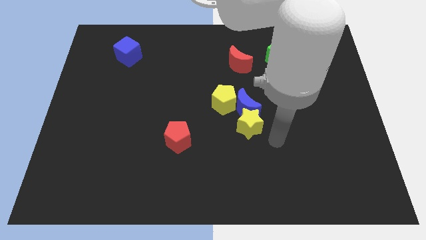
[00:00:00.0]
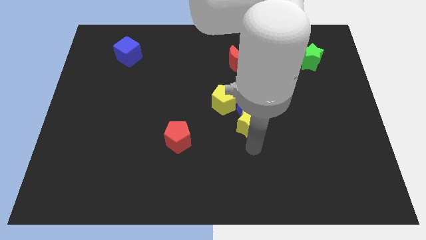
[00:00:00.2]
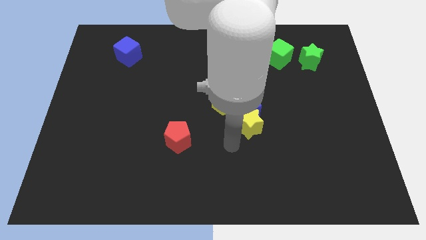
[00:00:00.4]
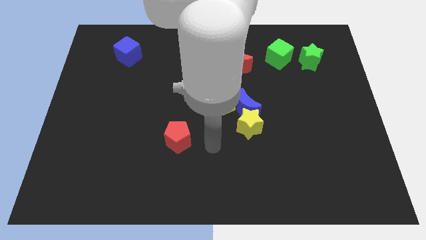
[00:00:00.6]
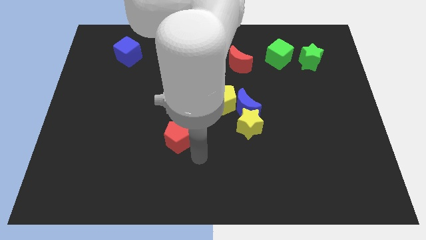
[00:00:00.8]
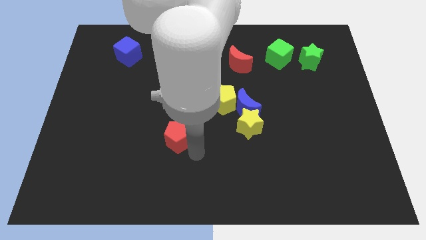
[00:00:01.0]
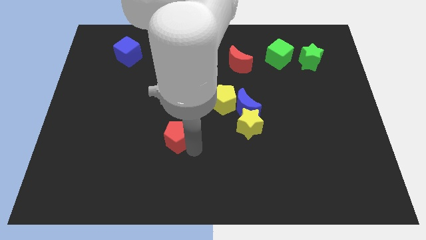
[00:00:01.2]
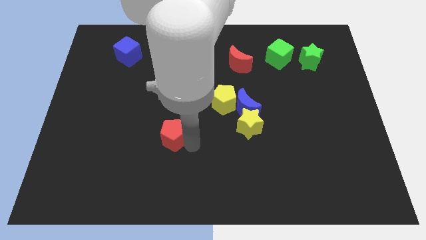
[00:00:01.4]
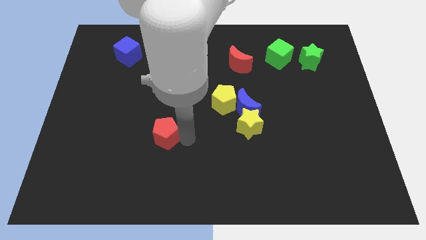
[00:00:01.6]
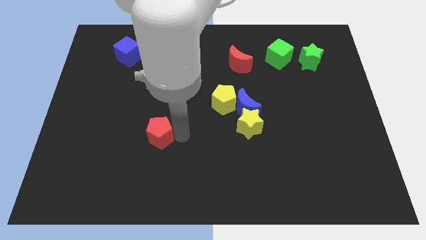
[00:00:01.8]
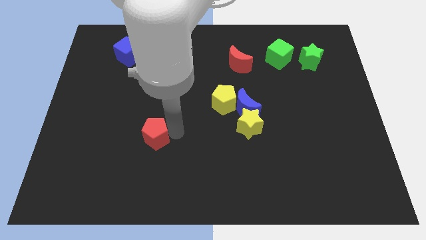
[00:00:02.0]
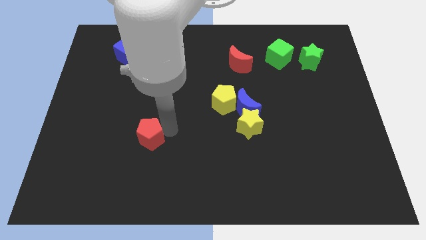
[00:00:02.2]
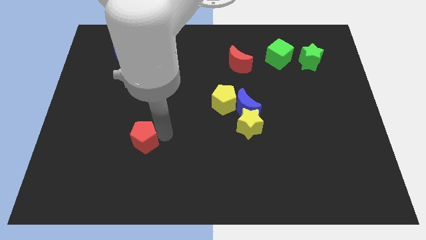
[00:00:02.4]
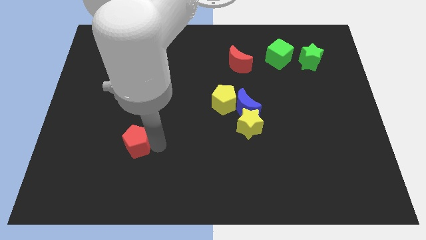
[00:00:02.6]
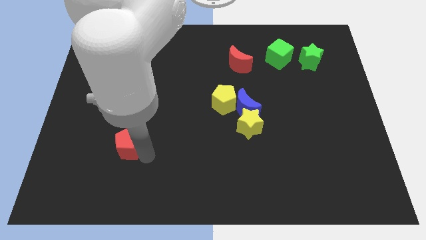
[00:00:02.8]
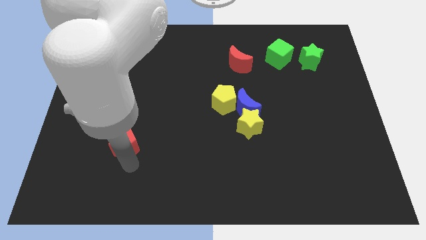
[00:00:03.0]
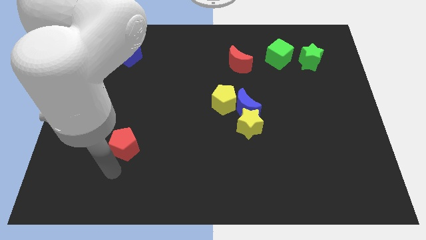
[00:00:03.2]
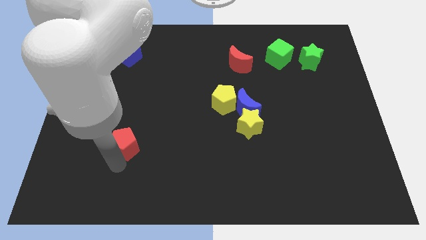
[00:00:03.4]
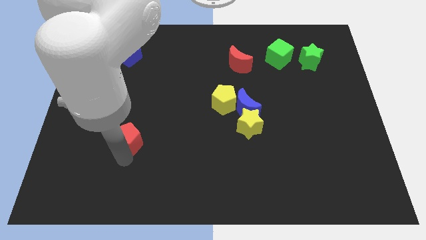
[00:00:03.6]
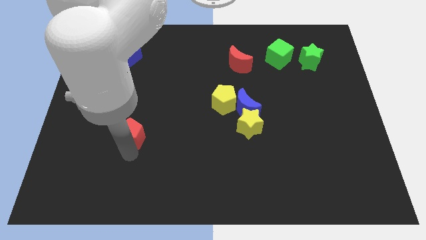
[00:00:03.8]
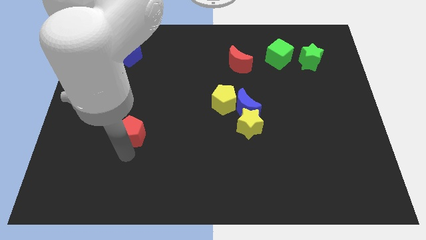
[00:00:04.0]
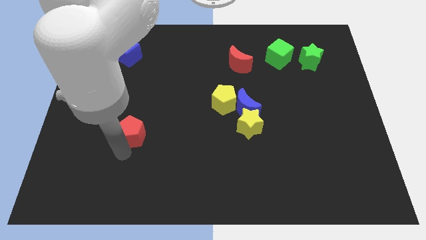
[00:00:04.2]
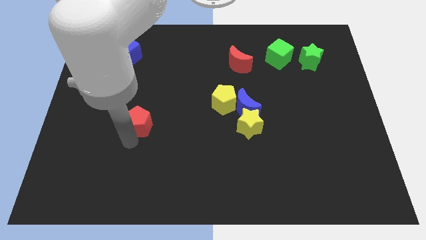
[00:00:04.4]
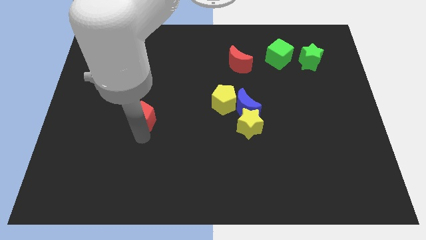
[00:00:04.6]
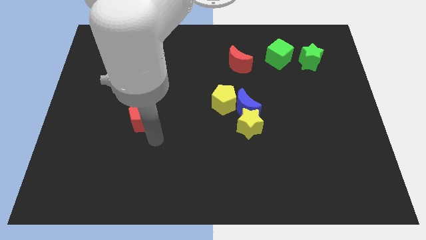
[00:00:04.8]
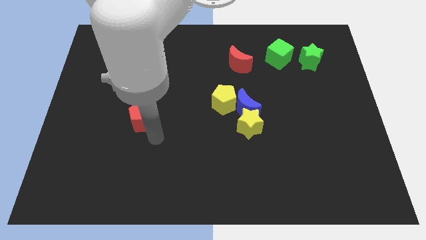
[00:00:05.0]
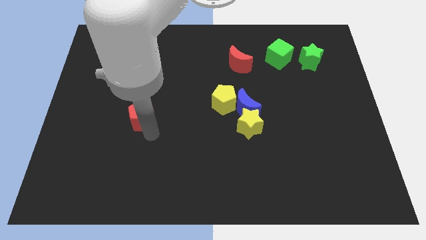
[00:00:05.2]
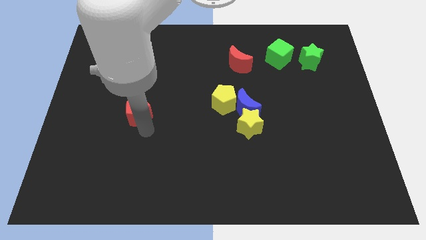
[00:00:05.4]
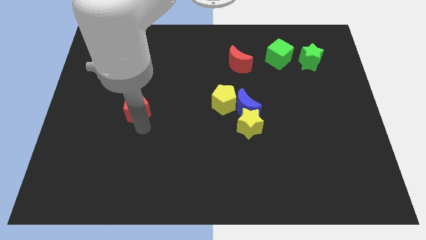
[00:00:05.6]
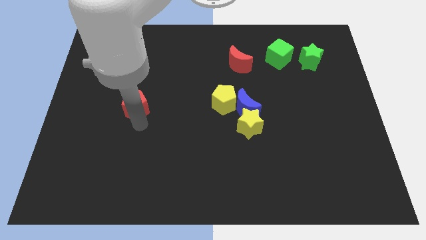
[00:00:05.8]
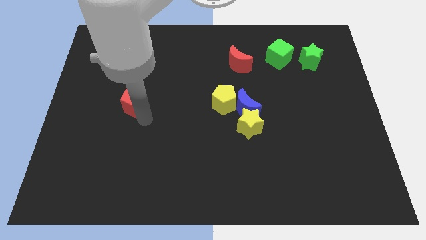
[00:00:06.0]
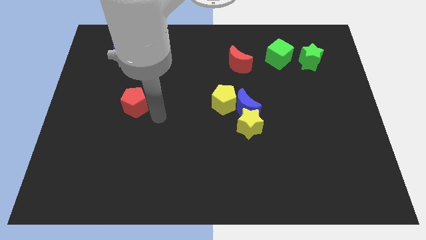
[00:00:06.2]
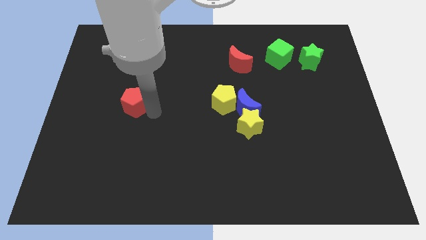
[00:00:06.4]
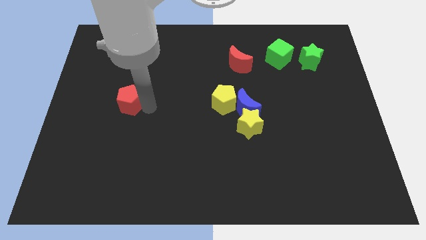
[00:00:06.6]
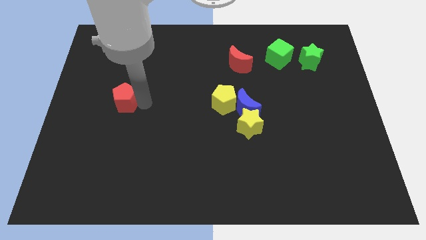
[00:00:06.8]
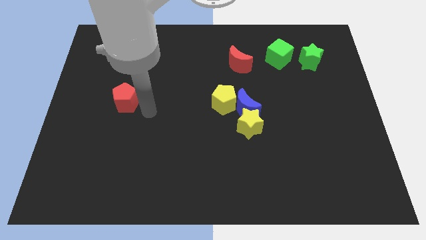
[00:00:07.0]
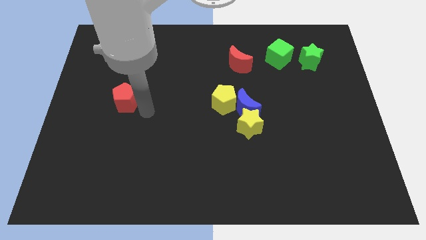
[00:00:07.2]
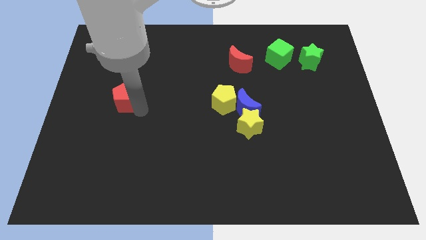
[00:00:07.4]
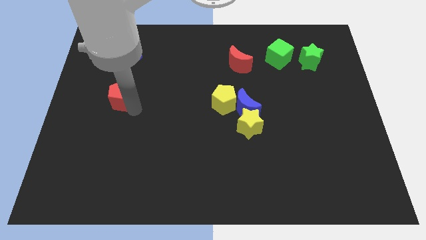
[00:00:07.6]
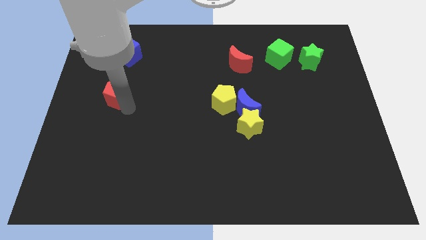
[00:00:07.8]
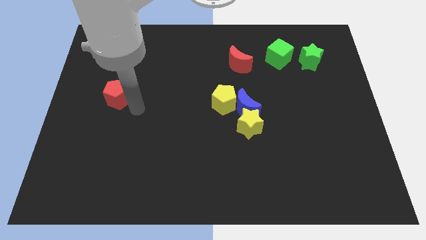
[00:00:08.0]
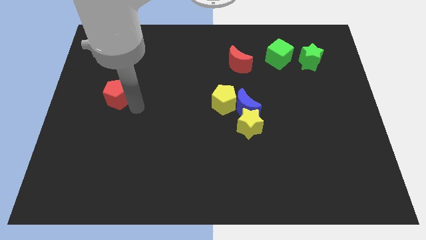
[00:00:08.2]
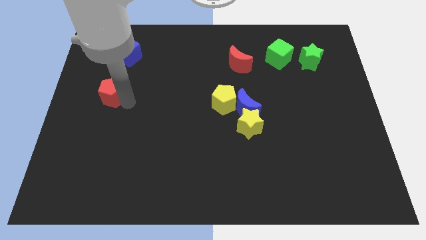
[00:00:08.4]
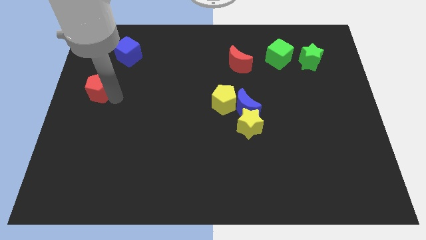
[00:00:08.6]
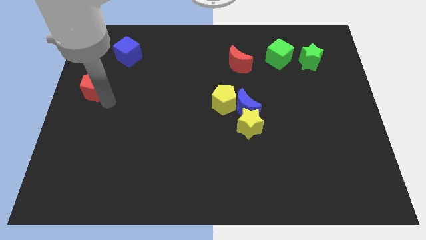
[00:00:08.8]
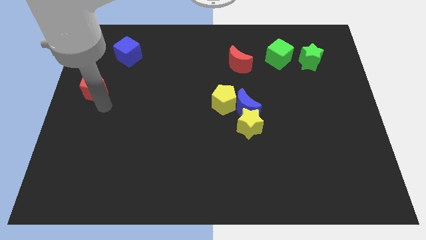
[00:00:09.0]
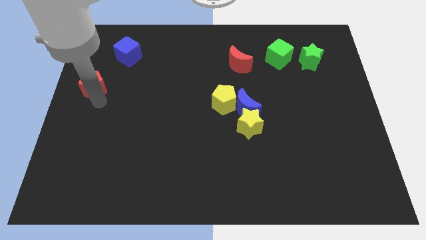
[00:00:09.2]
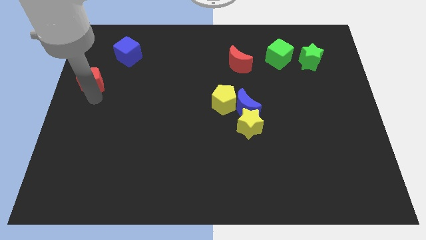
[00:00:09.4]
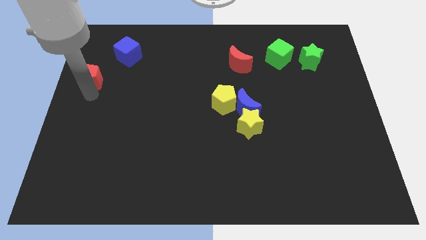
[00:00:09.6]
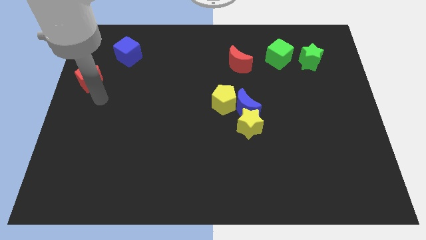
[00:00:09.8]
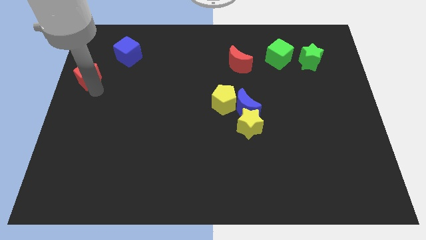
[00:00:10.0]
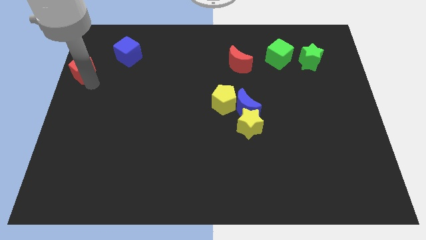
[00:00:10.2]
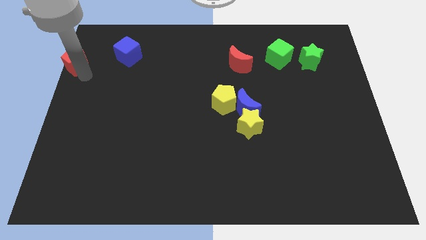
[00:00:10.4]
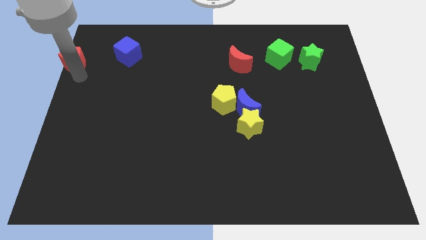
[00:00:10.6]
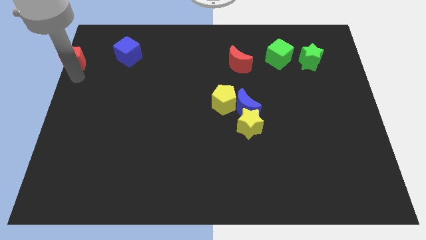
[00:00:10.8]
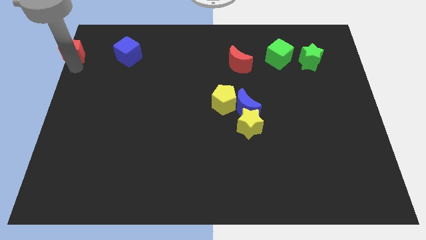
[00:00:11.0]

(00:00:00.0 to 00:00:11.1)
put the red pentagon to the top left
